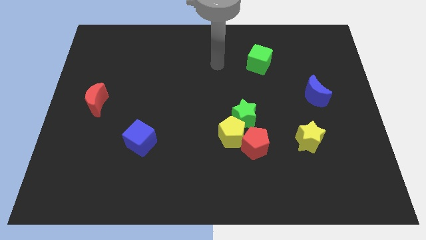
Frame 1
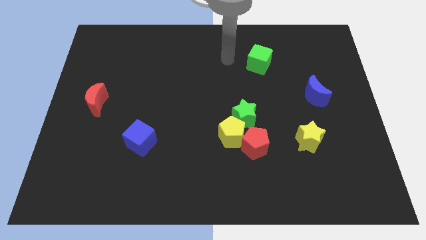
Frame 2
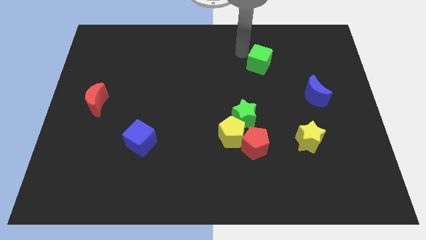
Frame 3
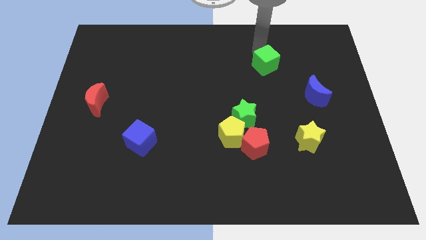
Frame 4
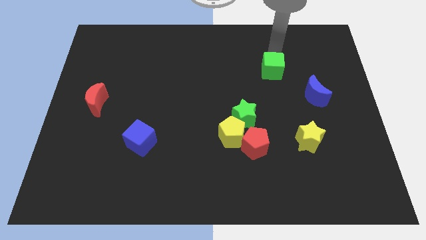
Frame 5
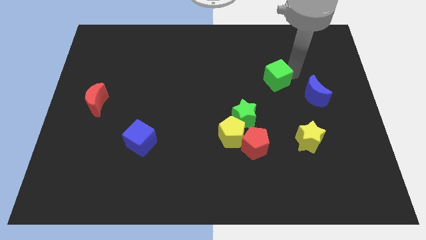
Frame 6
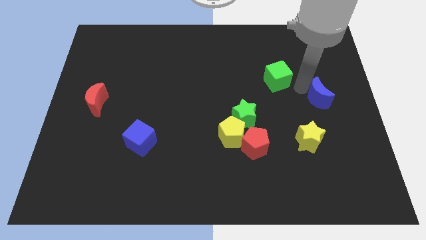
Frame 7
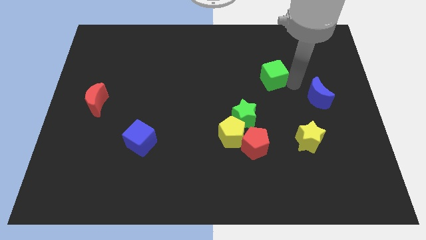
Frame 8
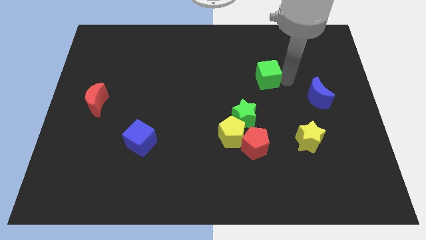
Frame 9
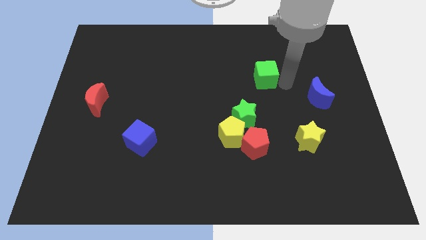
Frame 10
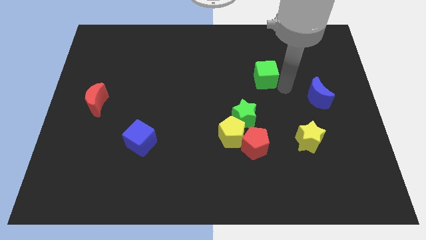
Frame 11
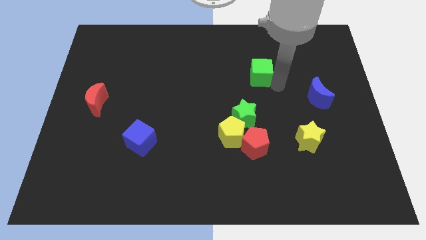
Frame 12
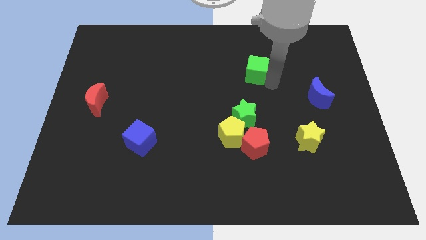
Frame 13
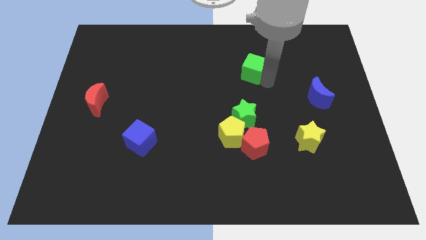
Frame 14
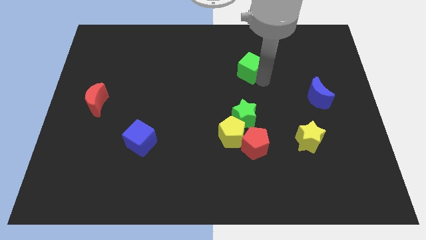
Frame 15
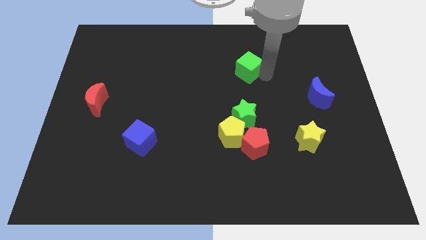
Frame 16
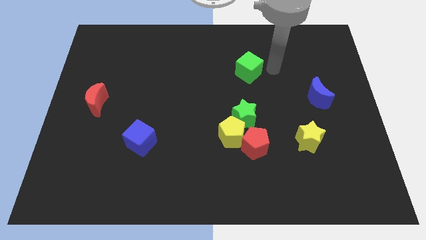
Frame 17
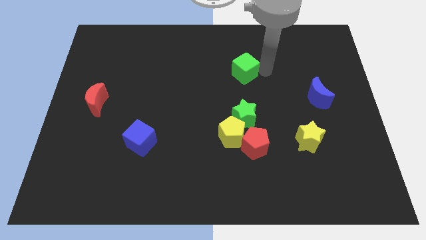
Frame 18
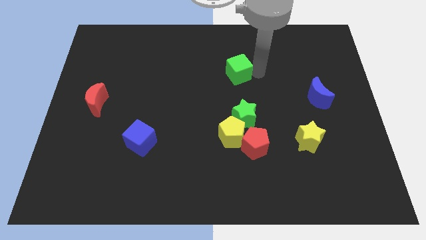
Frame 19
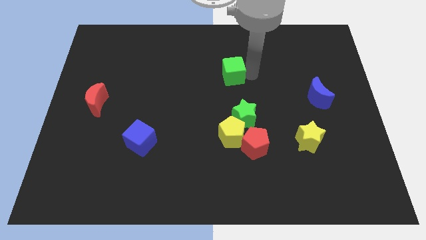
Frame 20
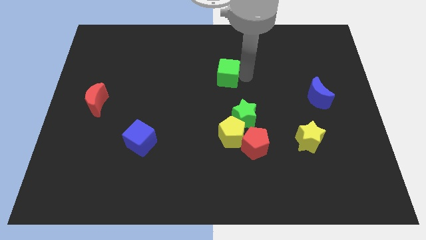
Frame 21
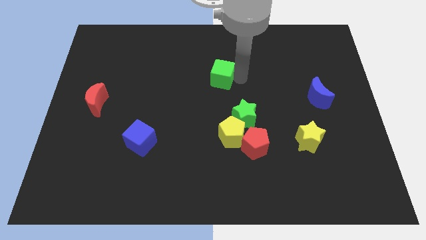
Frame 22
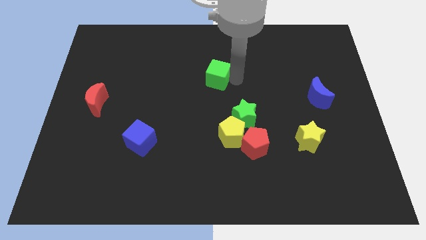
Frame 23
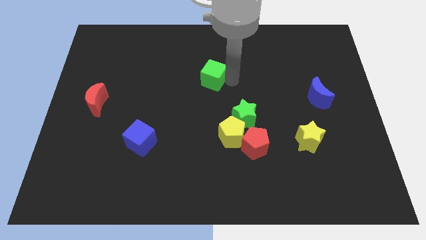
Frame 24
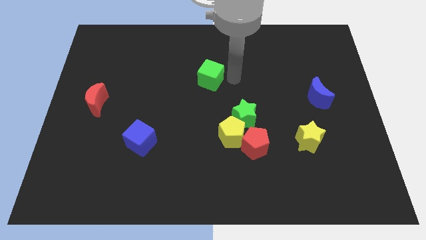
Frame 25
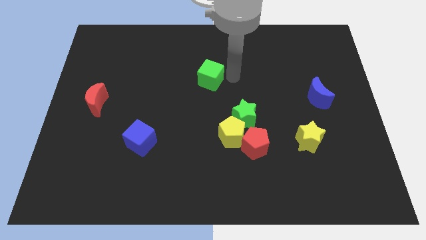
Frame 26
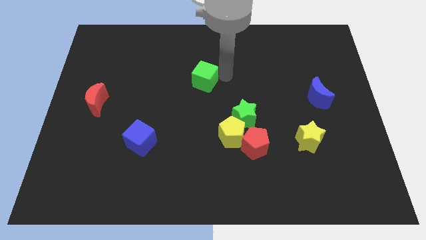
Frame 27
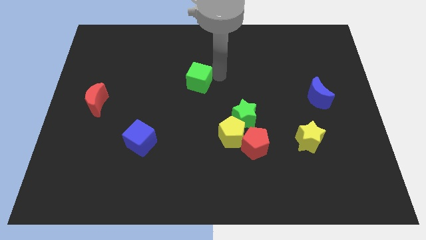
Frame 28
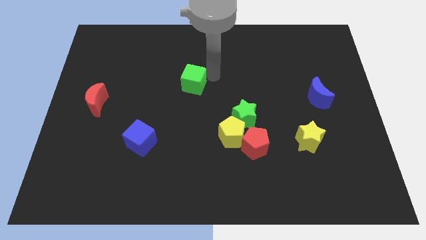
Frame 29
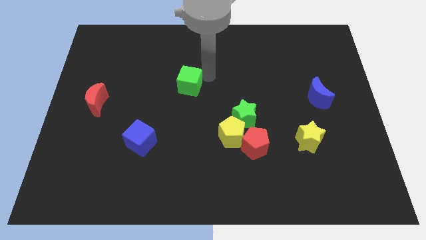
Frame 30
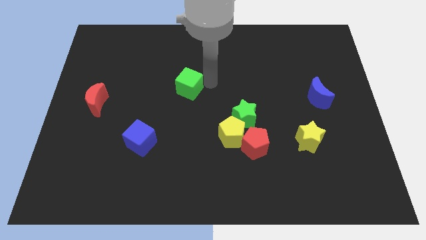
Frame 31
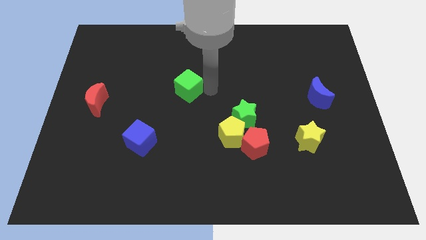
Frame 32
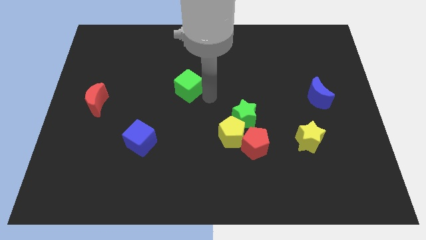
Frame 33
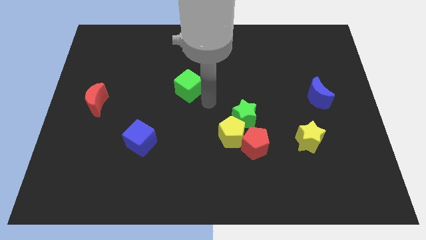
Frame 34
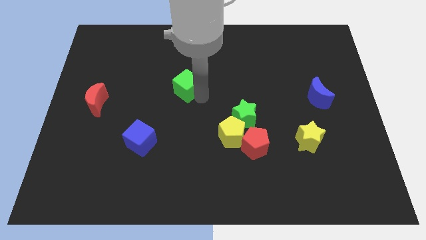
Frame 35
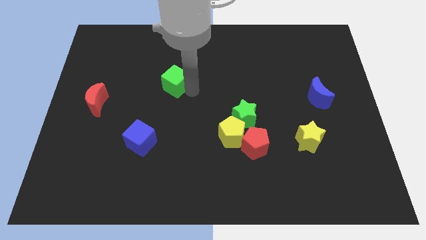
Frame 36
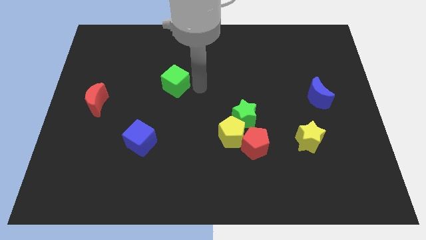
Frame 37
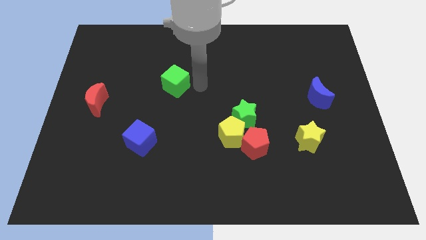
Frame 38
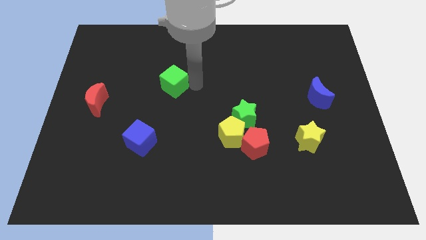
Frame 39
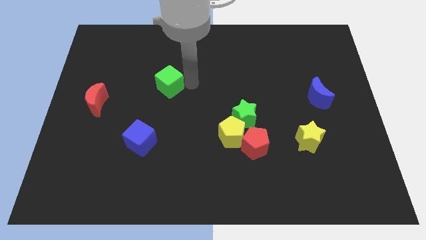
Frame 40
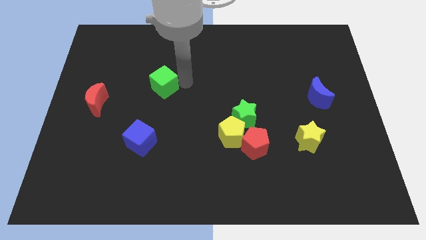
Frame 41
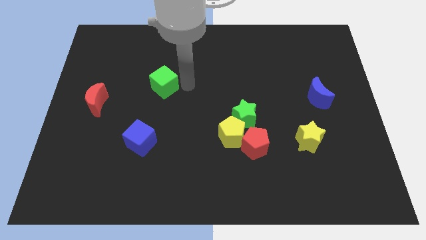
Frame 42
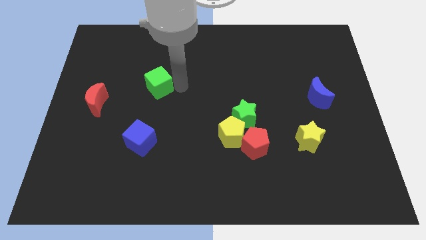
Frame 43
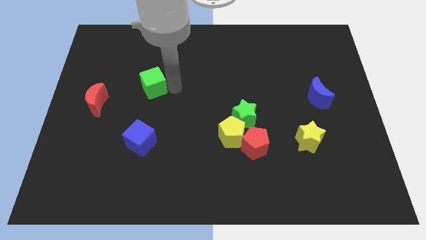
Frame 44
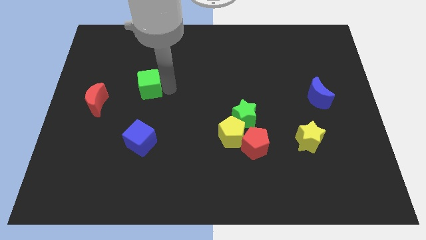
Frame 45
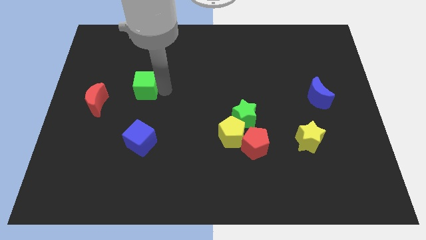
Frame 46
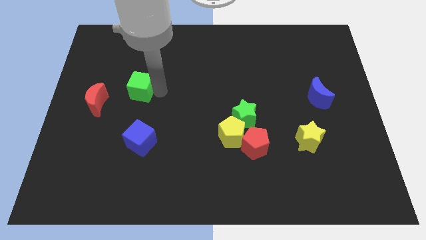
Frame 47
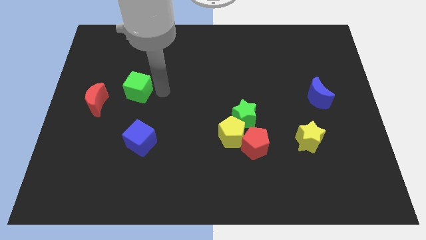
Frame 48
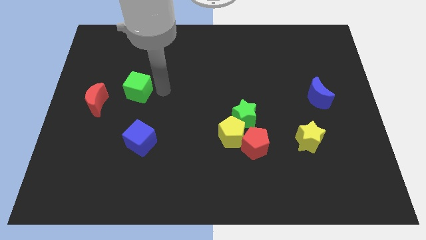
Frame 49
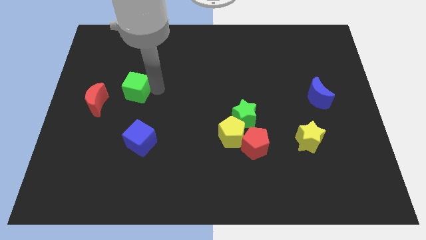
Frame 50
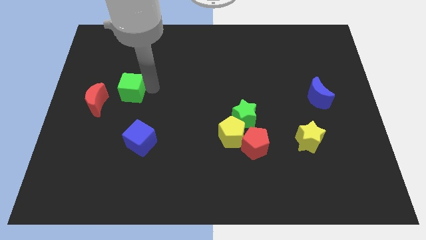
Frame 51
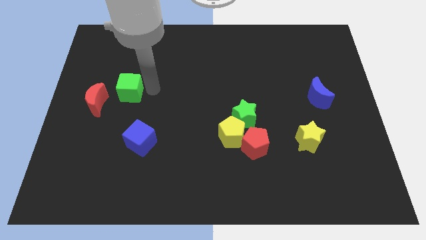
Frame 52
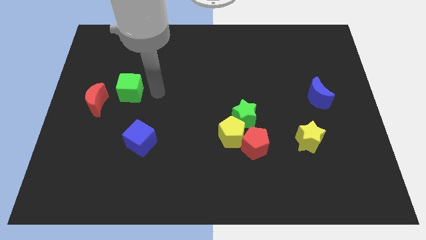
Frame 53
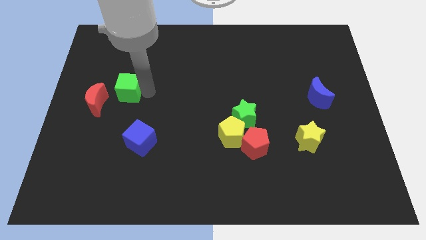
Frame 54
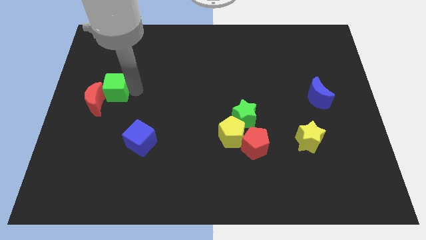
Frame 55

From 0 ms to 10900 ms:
put the green cube next to the red moon

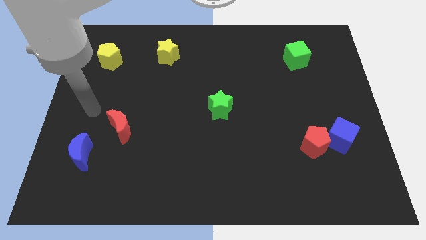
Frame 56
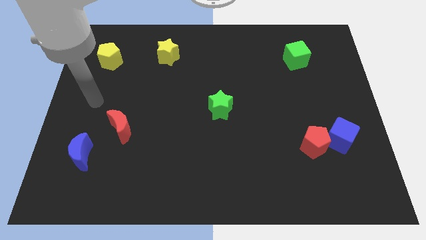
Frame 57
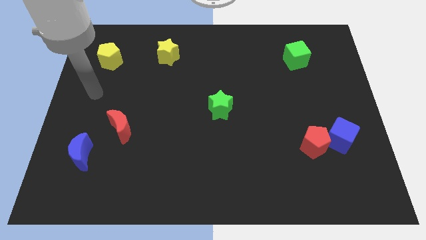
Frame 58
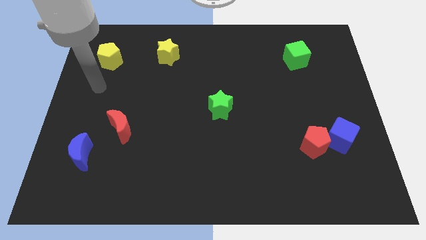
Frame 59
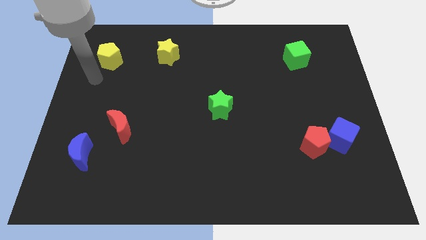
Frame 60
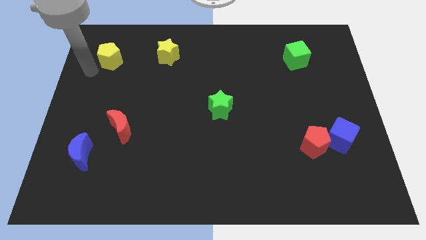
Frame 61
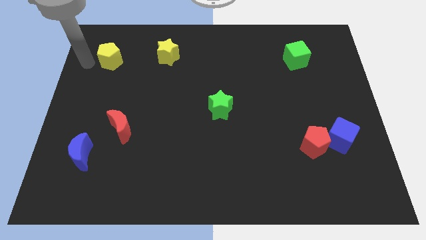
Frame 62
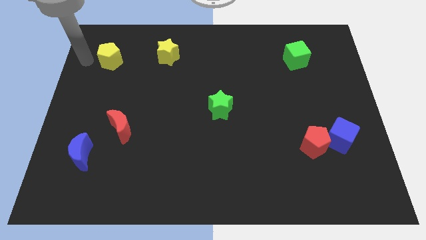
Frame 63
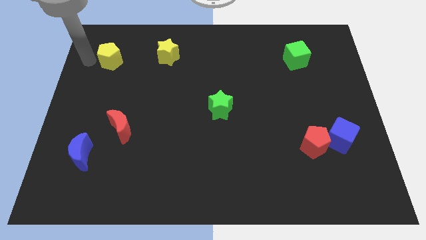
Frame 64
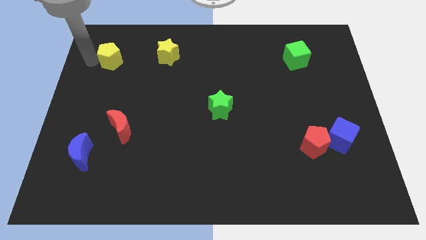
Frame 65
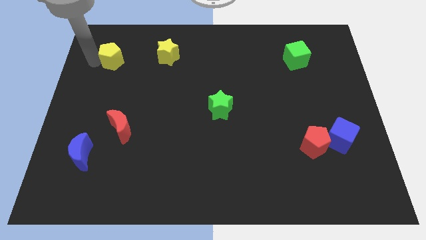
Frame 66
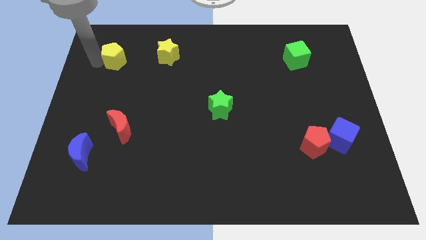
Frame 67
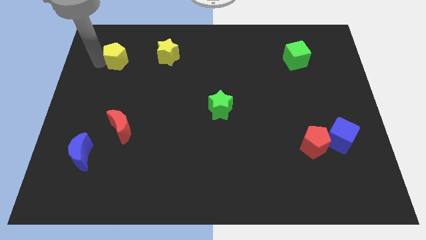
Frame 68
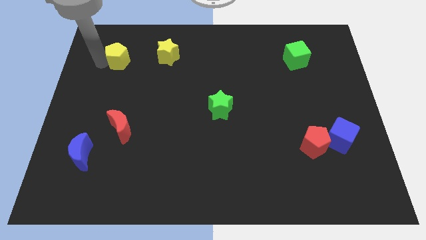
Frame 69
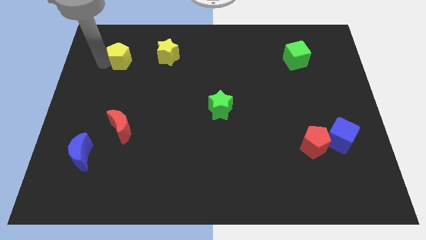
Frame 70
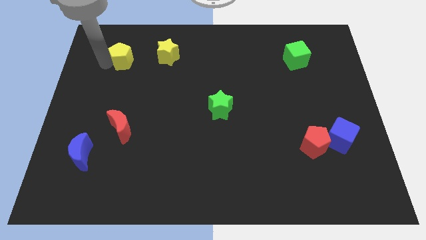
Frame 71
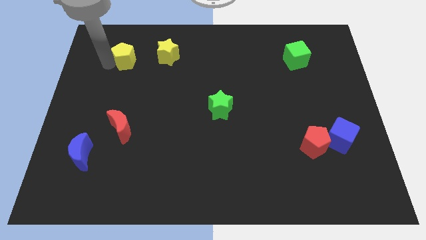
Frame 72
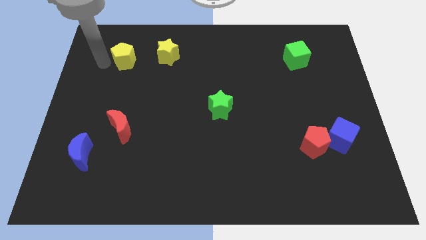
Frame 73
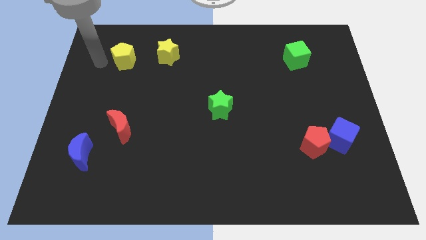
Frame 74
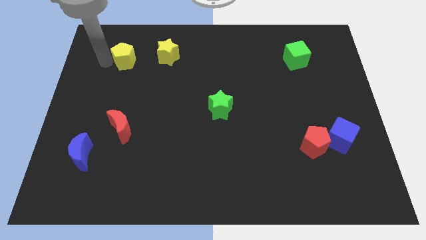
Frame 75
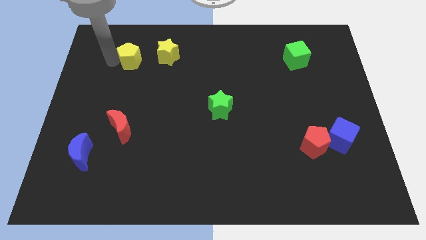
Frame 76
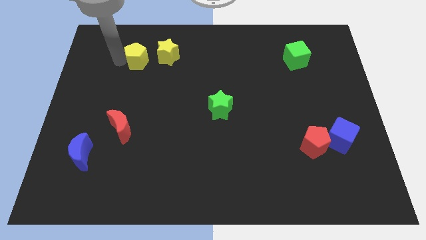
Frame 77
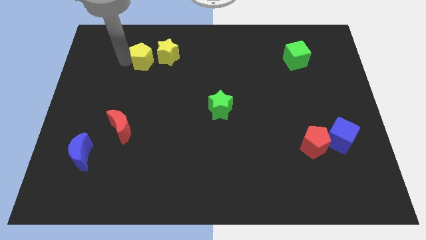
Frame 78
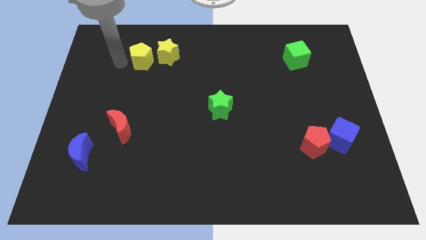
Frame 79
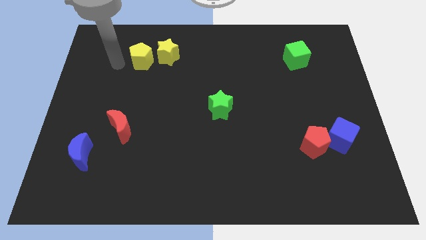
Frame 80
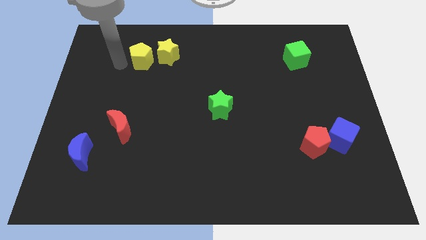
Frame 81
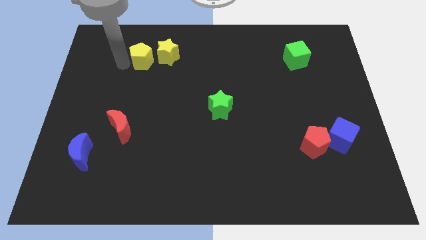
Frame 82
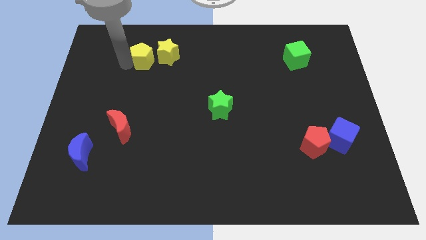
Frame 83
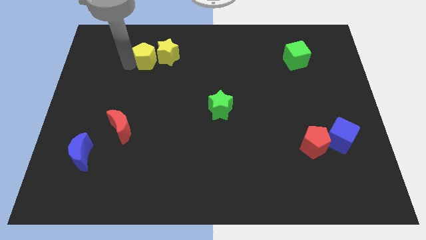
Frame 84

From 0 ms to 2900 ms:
push the yellow pentagon towards the yellow star
